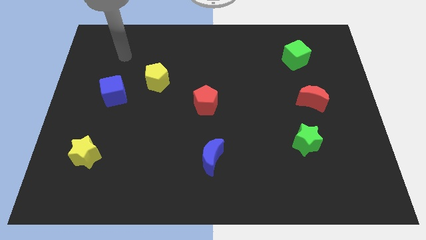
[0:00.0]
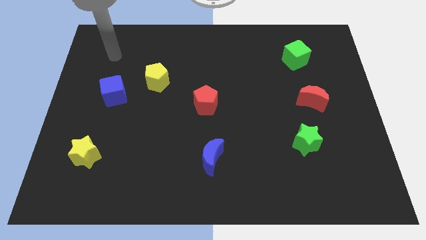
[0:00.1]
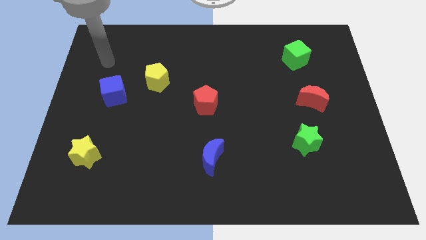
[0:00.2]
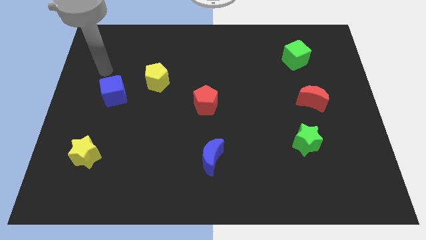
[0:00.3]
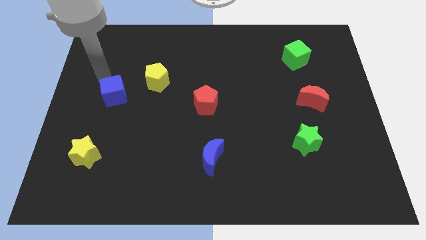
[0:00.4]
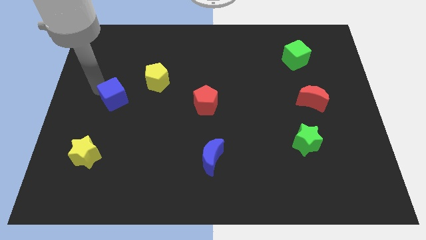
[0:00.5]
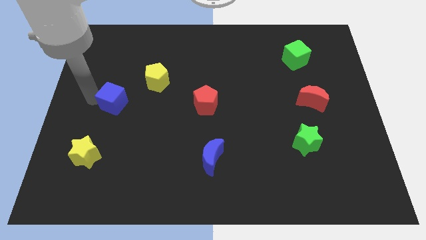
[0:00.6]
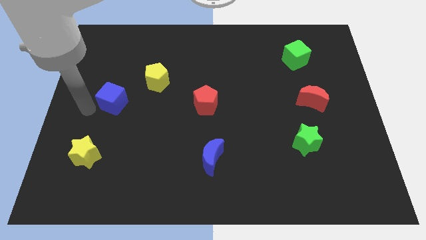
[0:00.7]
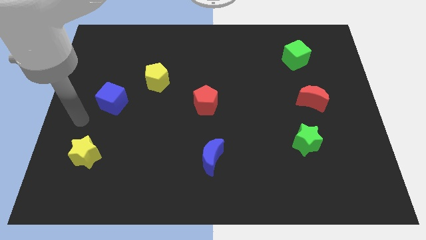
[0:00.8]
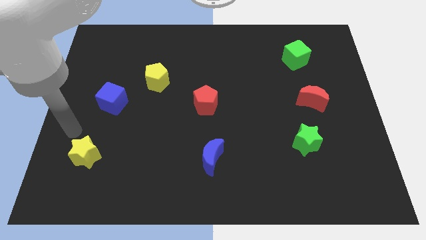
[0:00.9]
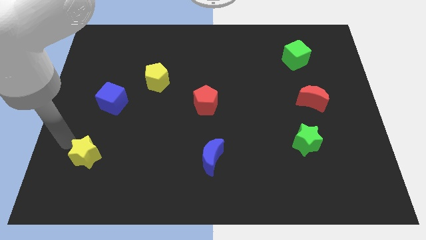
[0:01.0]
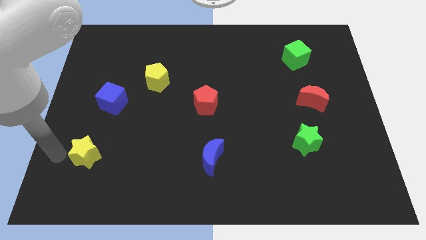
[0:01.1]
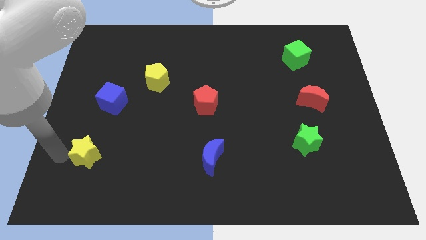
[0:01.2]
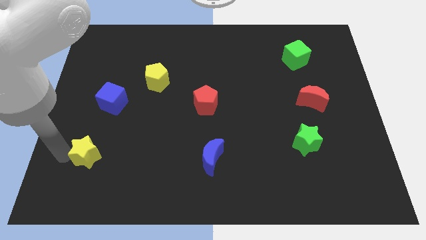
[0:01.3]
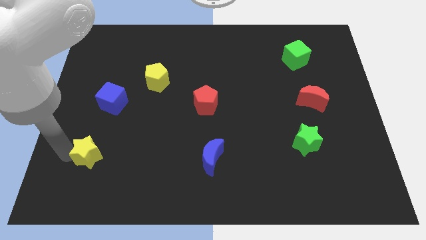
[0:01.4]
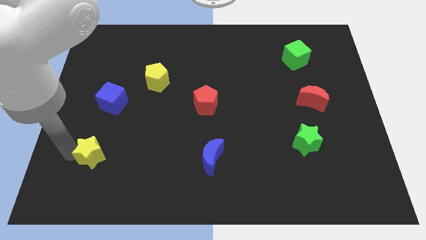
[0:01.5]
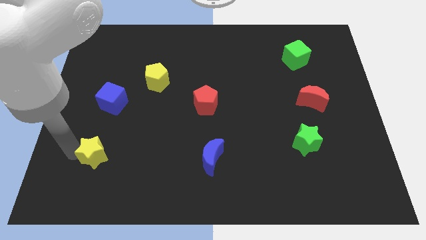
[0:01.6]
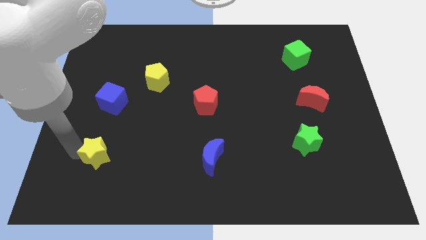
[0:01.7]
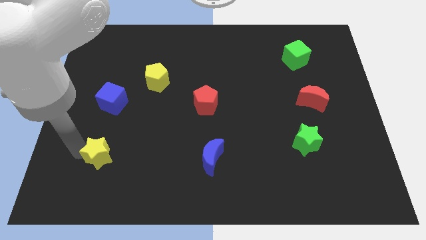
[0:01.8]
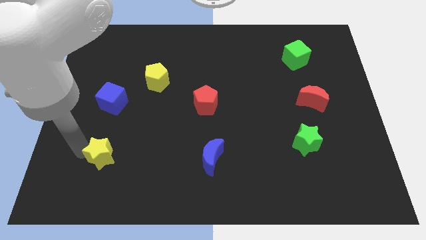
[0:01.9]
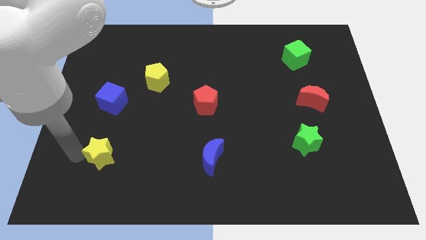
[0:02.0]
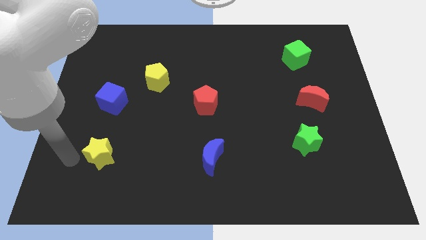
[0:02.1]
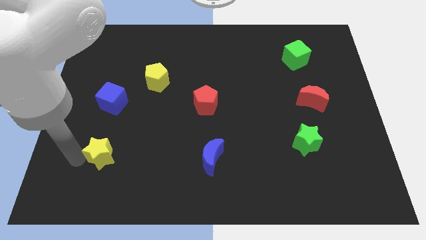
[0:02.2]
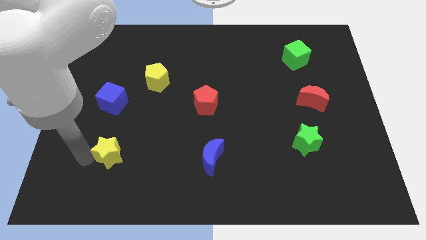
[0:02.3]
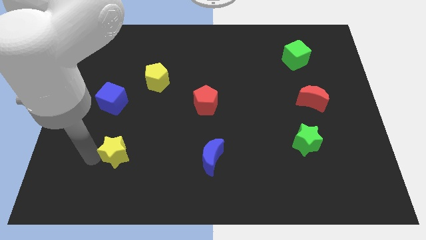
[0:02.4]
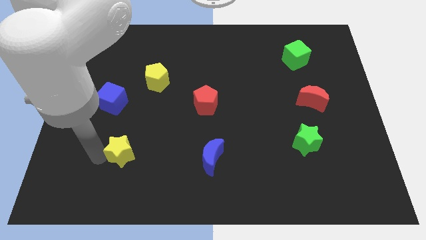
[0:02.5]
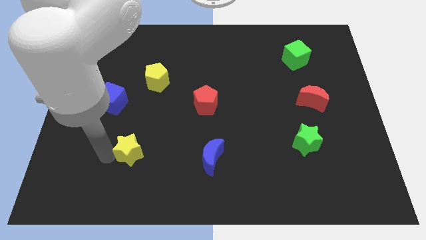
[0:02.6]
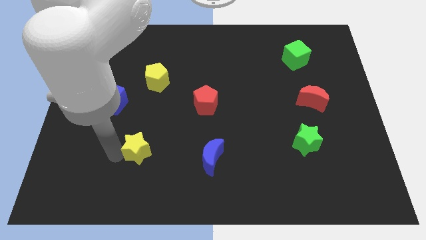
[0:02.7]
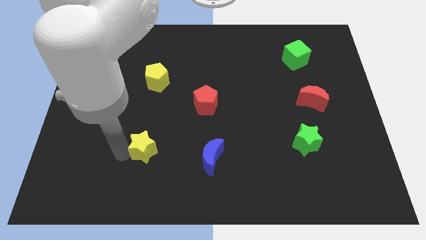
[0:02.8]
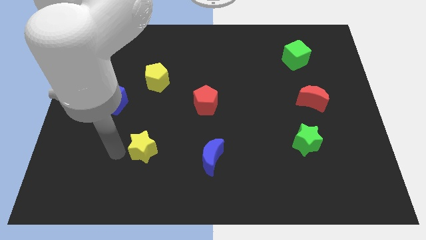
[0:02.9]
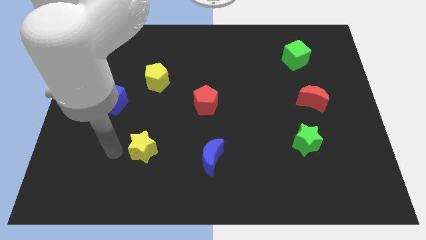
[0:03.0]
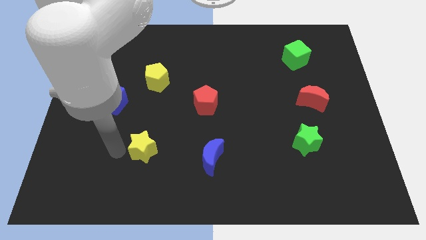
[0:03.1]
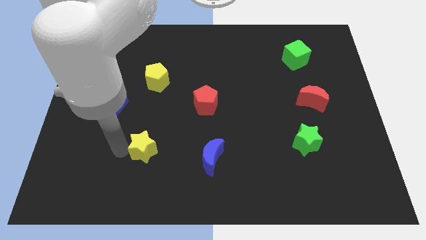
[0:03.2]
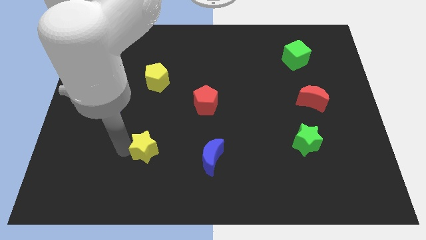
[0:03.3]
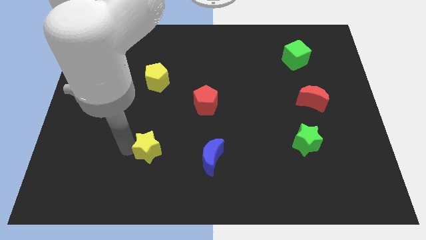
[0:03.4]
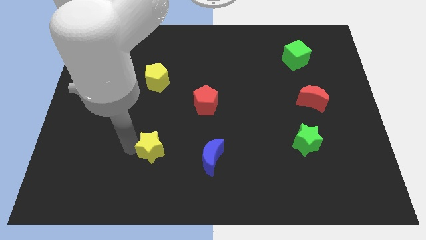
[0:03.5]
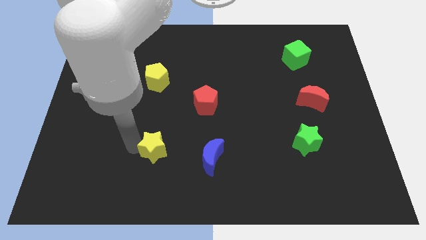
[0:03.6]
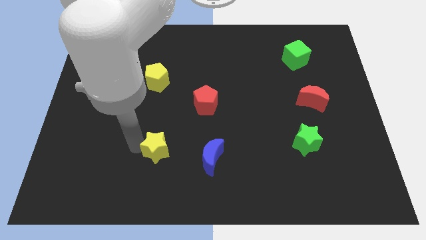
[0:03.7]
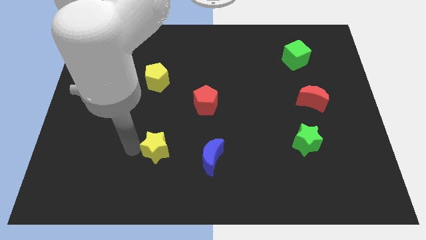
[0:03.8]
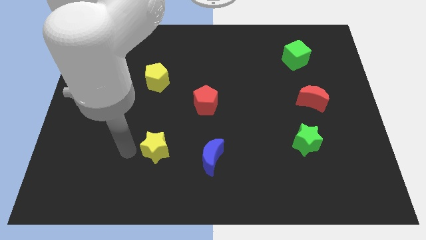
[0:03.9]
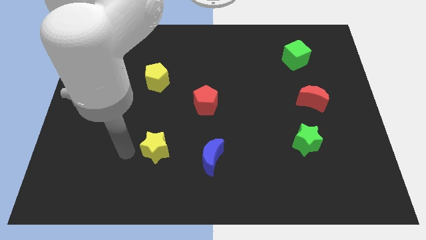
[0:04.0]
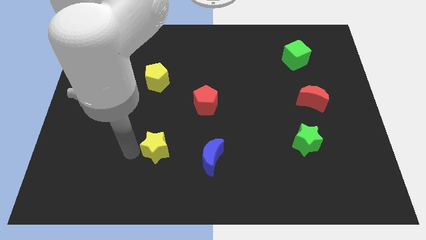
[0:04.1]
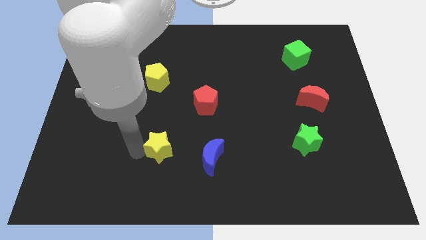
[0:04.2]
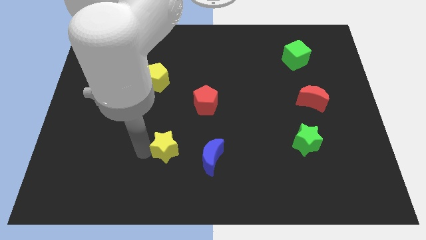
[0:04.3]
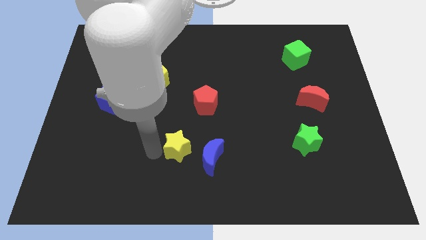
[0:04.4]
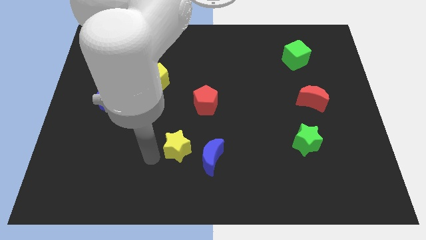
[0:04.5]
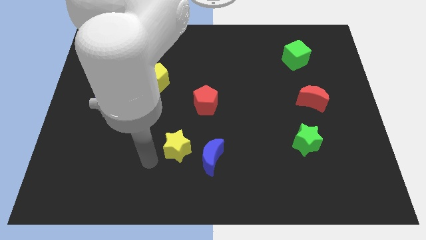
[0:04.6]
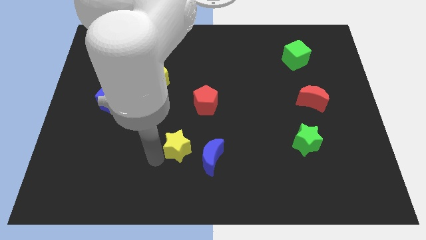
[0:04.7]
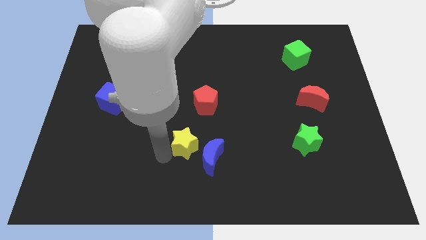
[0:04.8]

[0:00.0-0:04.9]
move the yellow star to the right

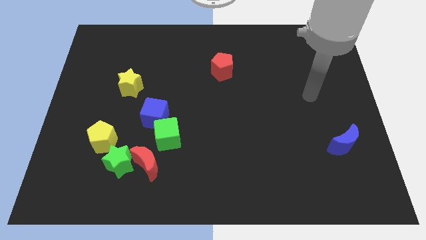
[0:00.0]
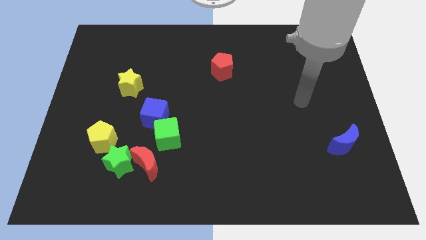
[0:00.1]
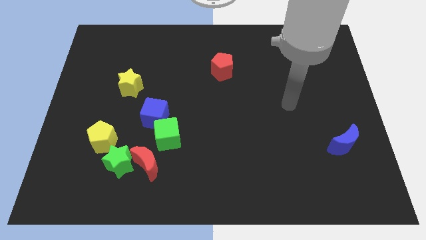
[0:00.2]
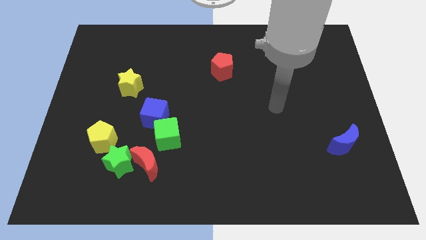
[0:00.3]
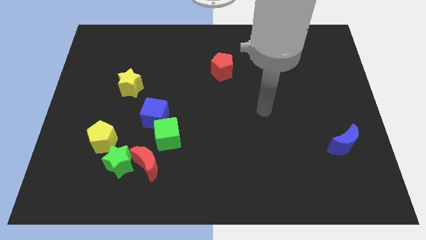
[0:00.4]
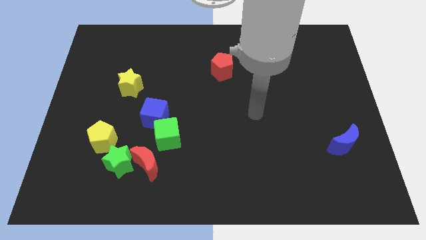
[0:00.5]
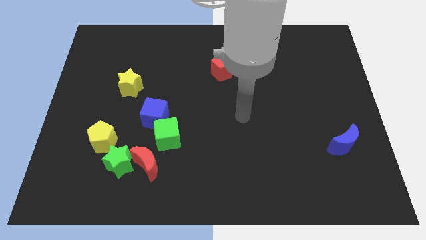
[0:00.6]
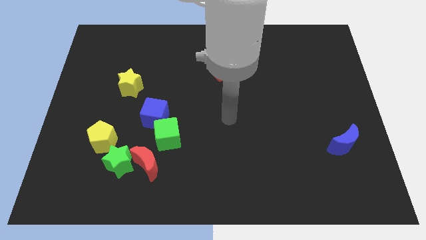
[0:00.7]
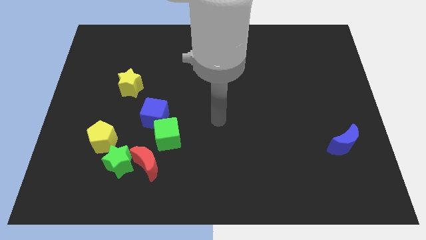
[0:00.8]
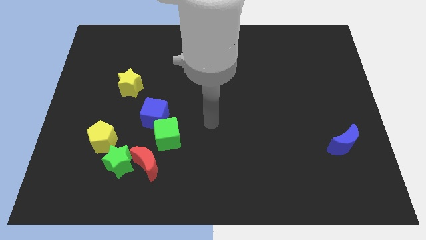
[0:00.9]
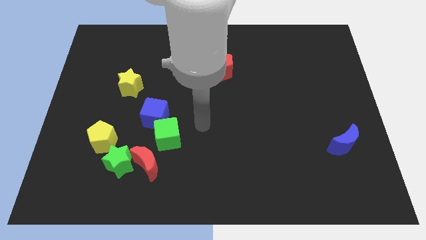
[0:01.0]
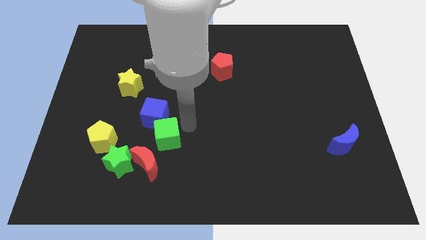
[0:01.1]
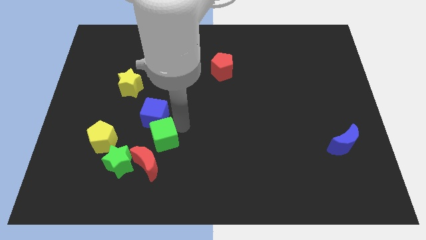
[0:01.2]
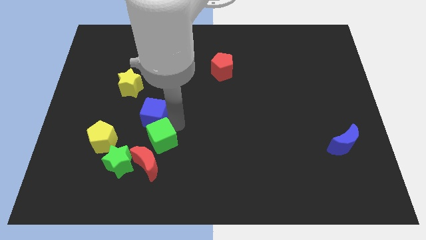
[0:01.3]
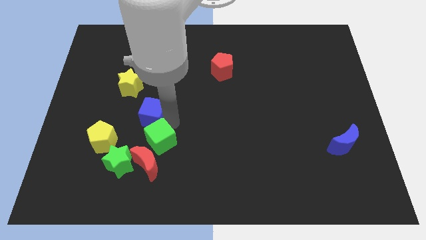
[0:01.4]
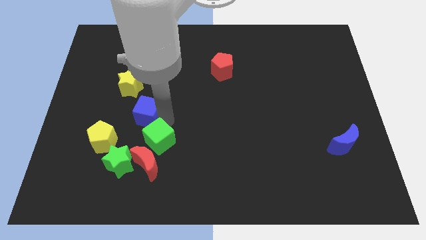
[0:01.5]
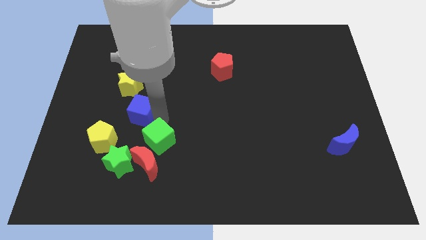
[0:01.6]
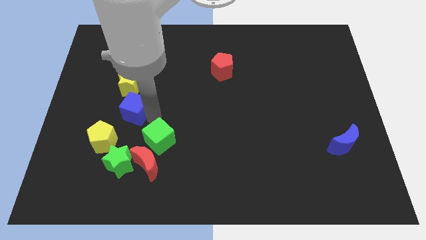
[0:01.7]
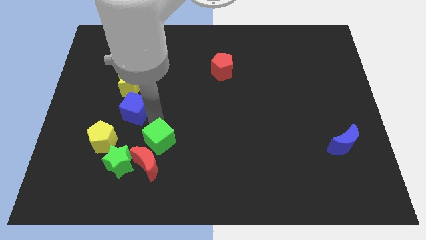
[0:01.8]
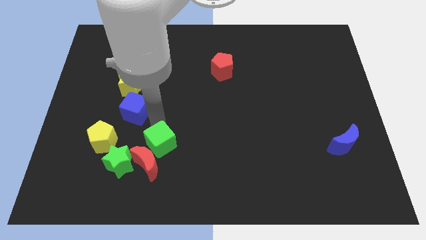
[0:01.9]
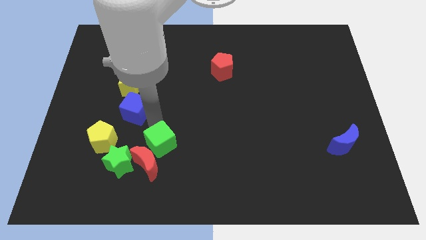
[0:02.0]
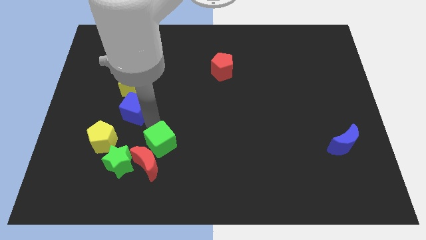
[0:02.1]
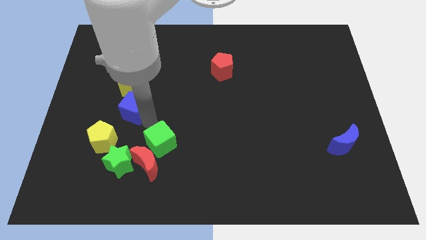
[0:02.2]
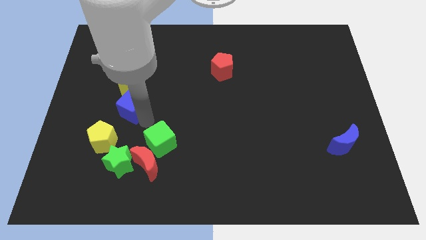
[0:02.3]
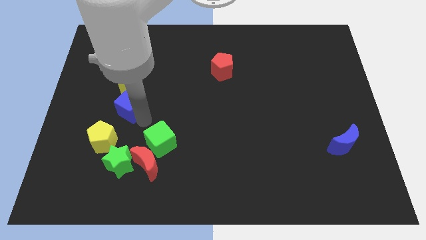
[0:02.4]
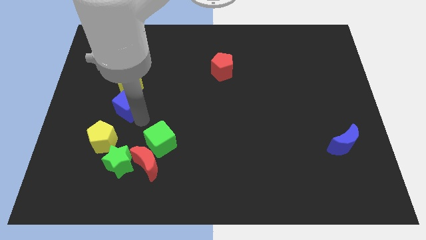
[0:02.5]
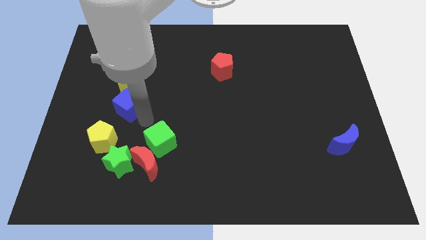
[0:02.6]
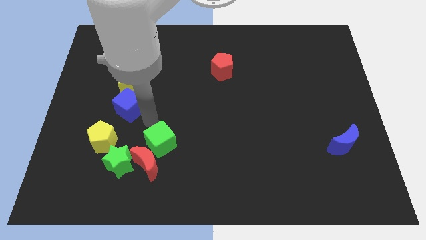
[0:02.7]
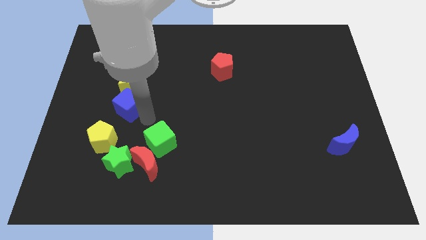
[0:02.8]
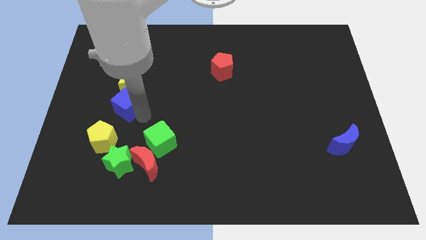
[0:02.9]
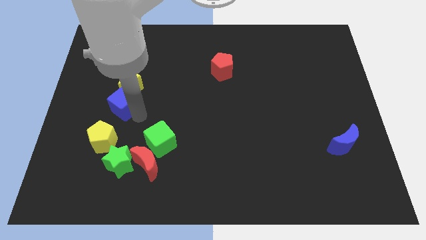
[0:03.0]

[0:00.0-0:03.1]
slightly move the blue cube upwards and to the left

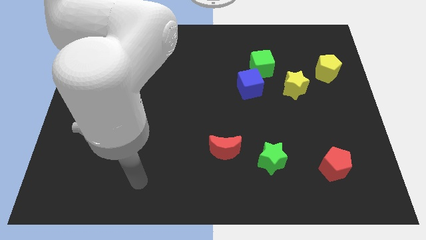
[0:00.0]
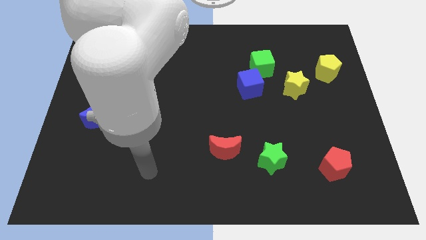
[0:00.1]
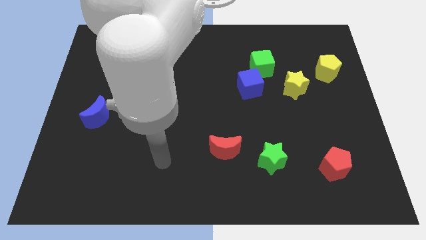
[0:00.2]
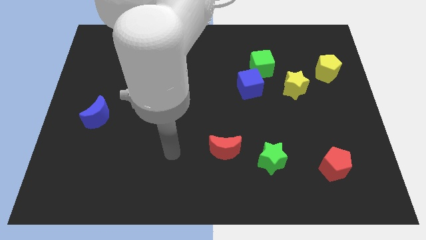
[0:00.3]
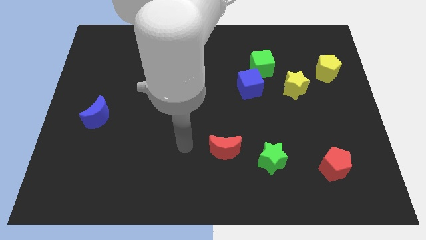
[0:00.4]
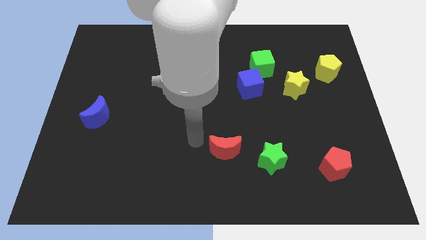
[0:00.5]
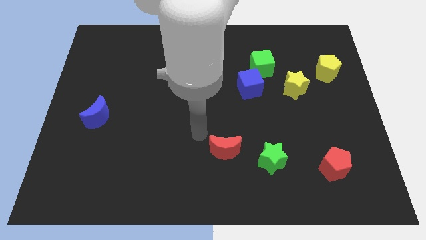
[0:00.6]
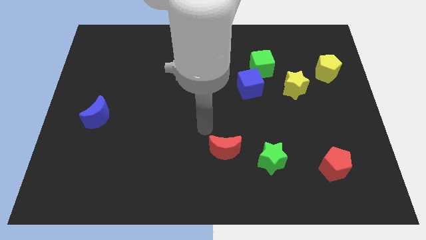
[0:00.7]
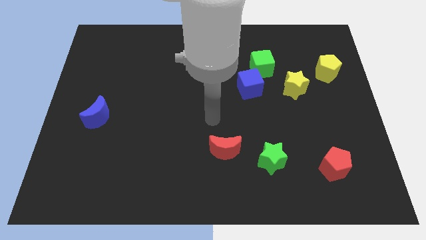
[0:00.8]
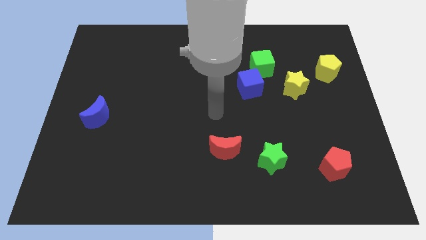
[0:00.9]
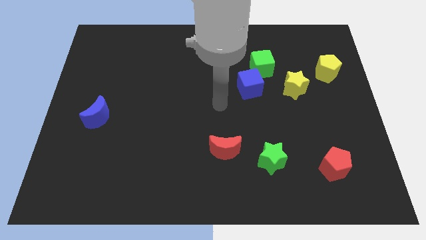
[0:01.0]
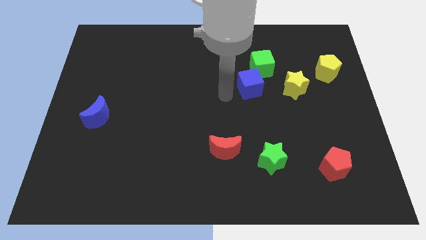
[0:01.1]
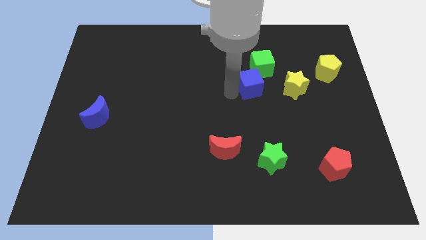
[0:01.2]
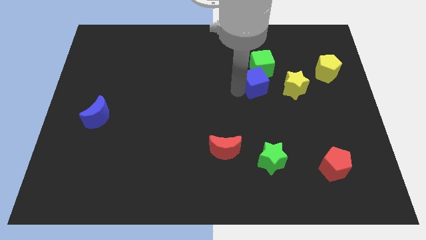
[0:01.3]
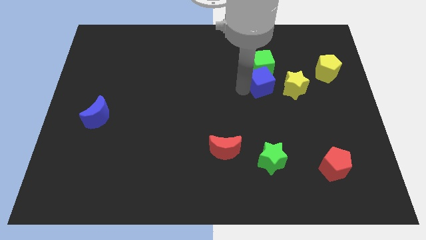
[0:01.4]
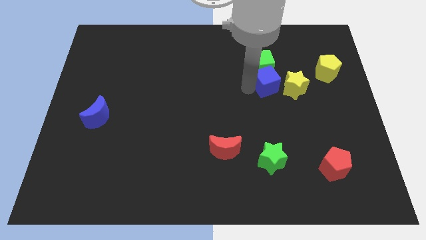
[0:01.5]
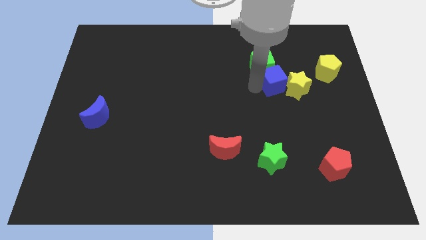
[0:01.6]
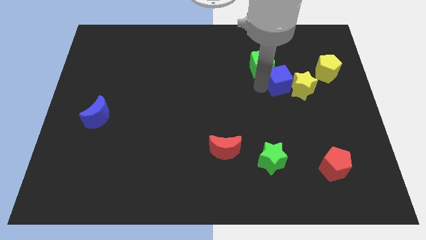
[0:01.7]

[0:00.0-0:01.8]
slightly slide the blue cube right
